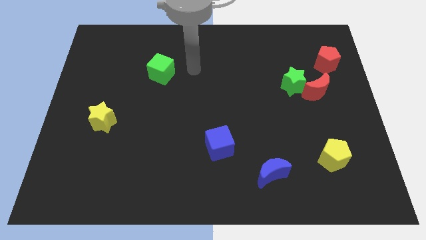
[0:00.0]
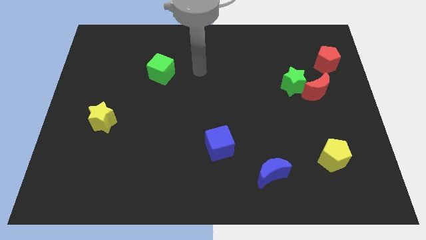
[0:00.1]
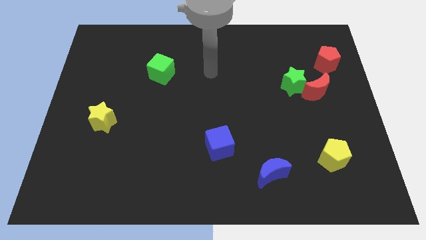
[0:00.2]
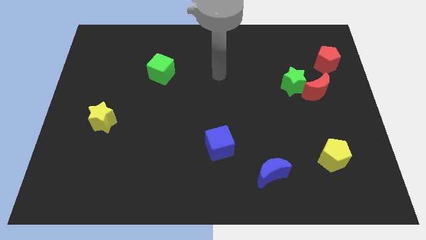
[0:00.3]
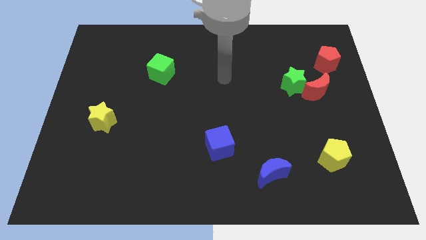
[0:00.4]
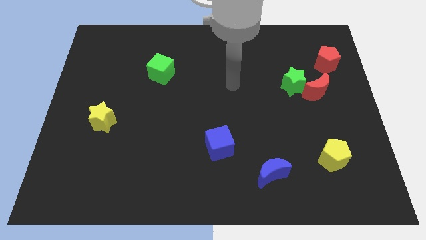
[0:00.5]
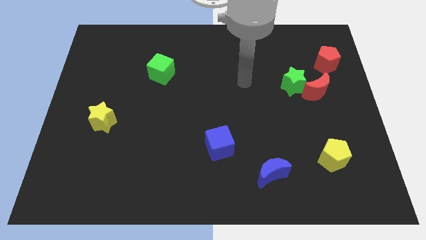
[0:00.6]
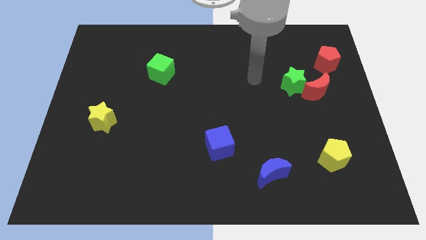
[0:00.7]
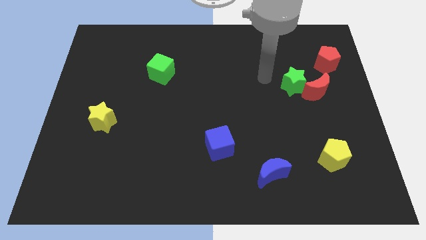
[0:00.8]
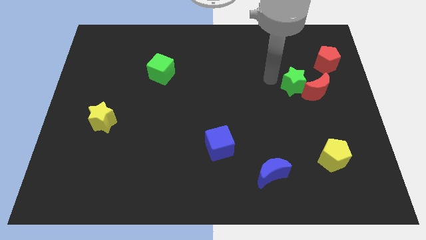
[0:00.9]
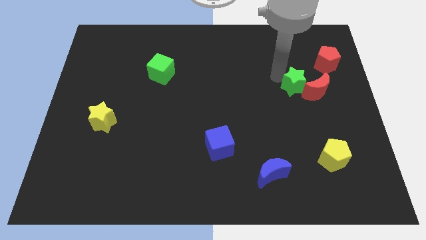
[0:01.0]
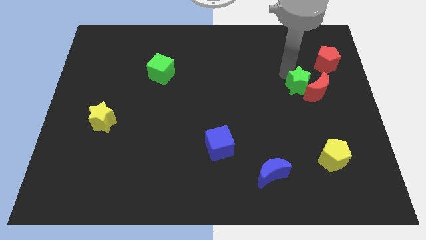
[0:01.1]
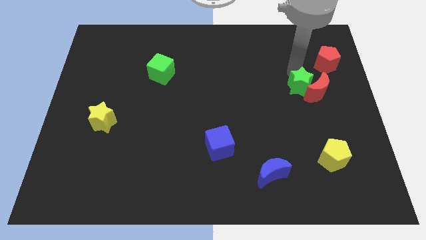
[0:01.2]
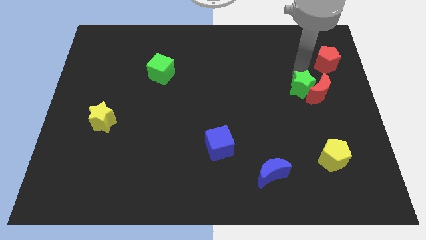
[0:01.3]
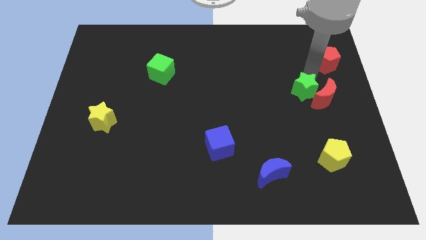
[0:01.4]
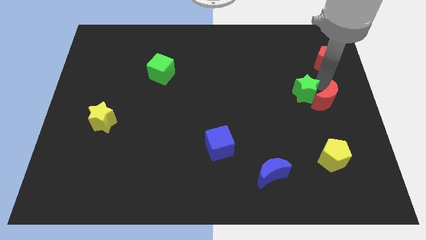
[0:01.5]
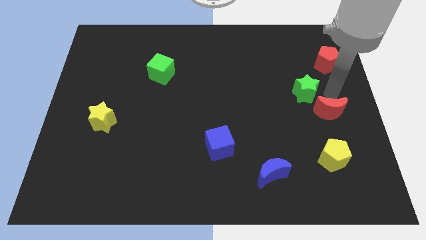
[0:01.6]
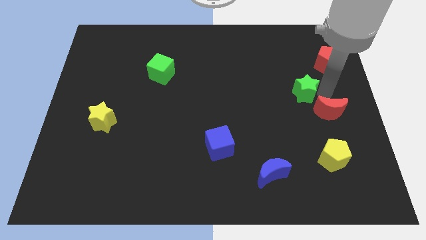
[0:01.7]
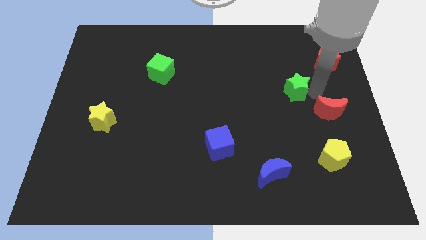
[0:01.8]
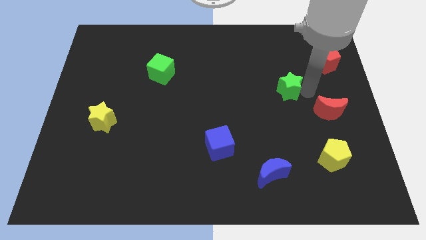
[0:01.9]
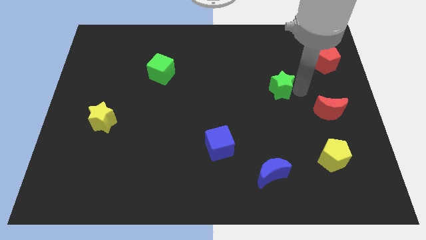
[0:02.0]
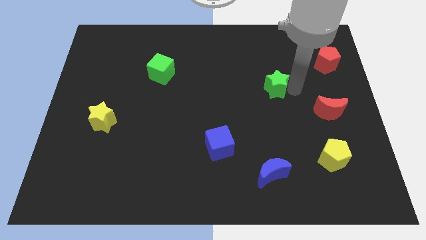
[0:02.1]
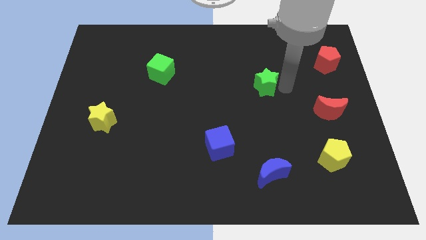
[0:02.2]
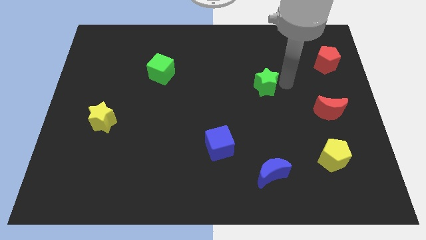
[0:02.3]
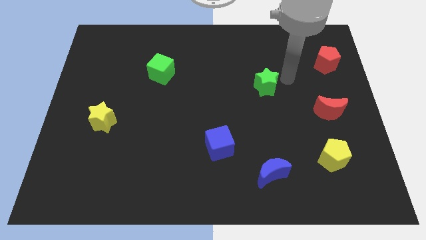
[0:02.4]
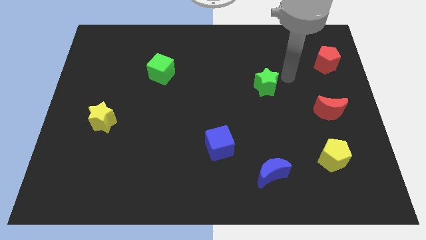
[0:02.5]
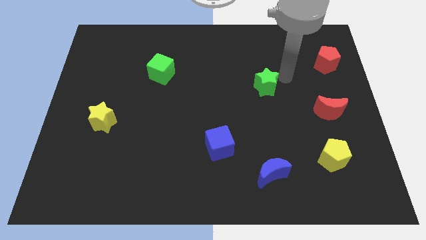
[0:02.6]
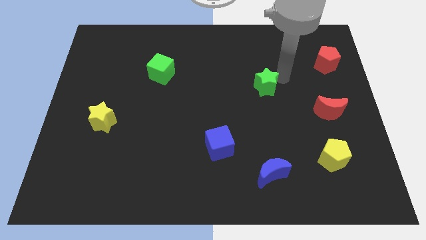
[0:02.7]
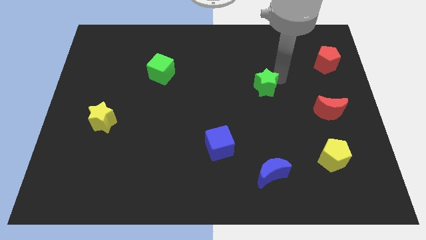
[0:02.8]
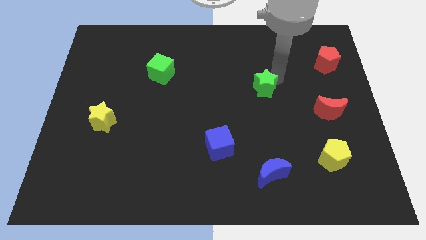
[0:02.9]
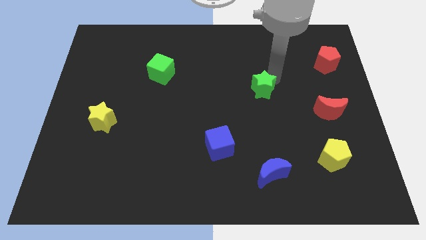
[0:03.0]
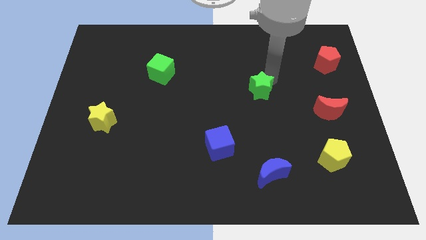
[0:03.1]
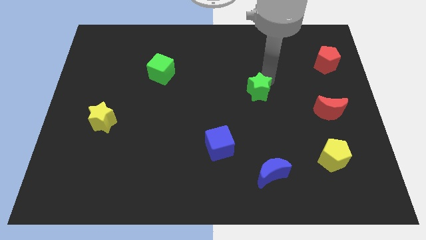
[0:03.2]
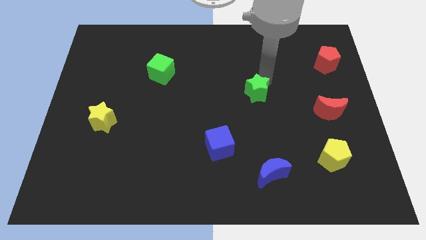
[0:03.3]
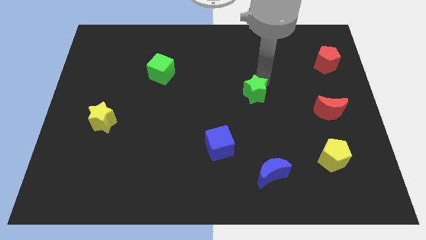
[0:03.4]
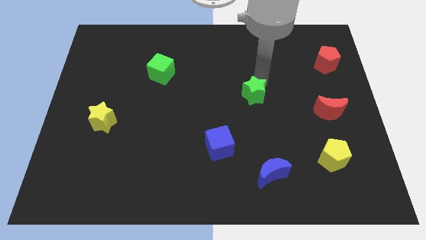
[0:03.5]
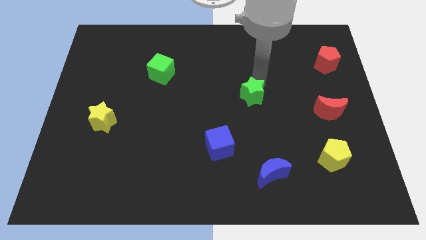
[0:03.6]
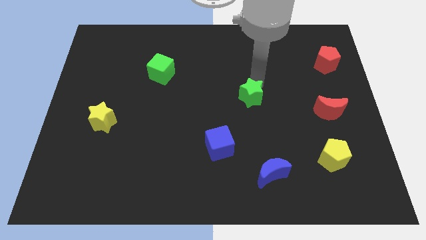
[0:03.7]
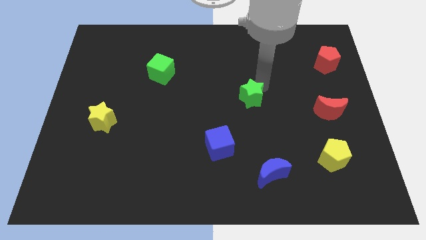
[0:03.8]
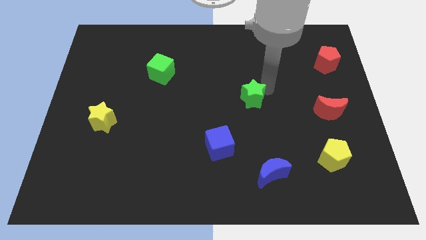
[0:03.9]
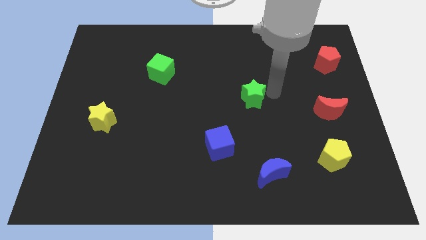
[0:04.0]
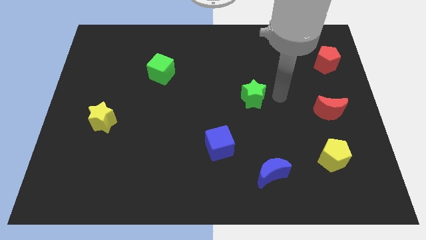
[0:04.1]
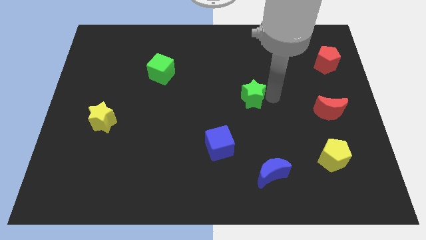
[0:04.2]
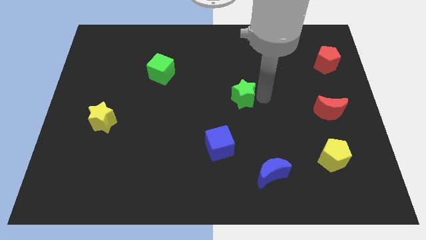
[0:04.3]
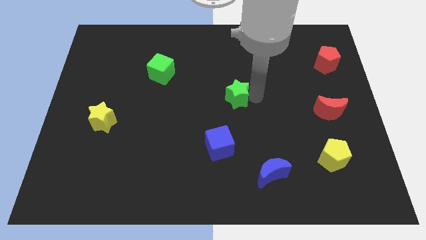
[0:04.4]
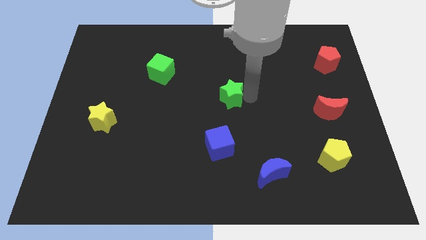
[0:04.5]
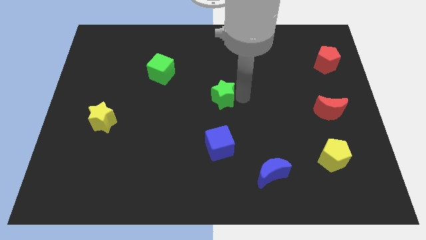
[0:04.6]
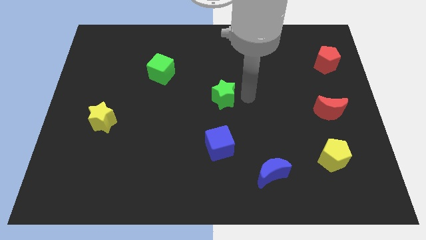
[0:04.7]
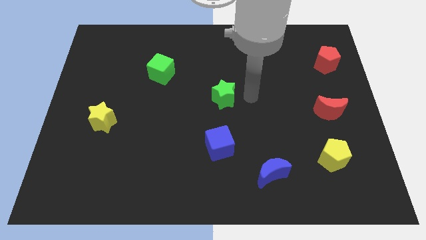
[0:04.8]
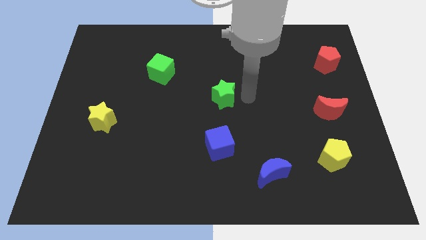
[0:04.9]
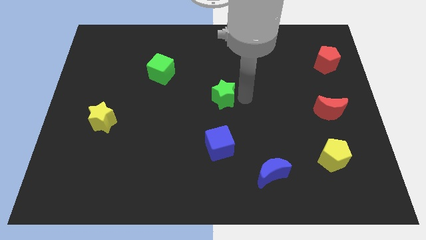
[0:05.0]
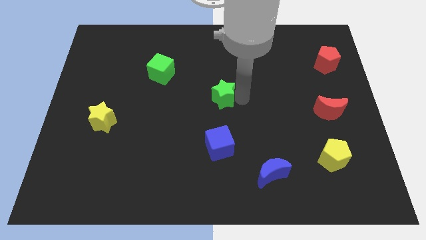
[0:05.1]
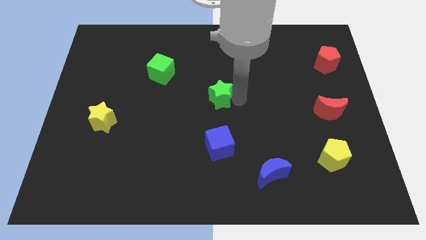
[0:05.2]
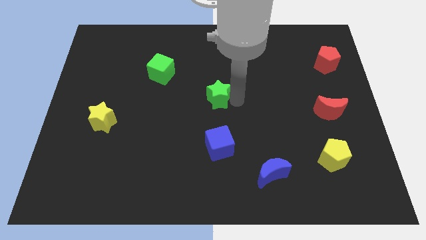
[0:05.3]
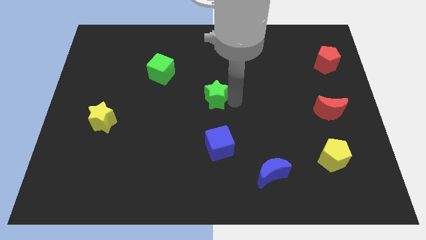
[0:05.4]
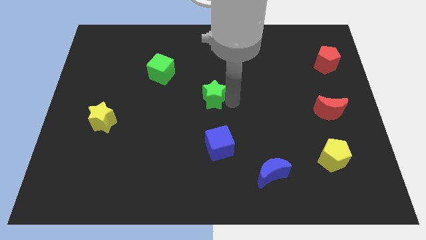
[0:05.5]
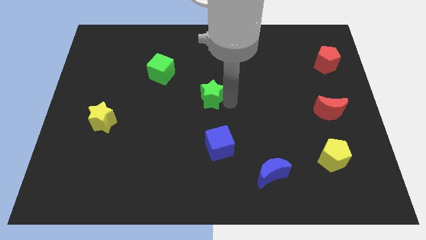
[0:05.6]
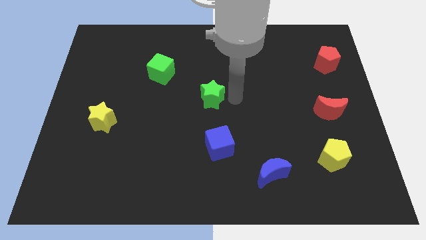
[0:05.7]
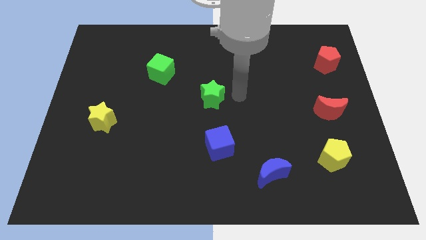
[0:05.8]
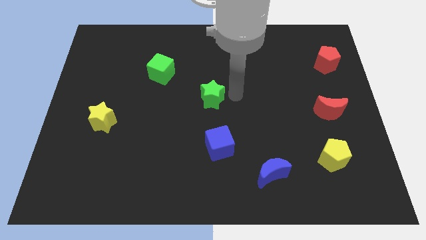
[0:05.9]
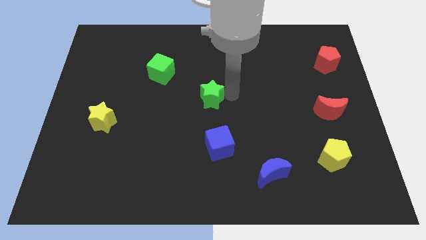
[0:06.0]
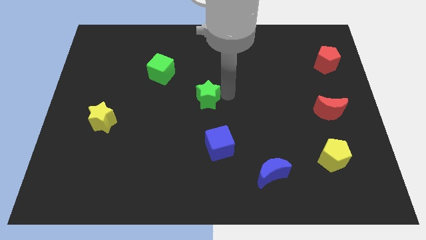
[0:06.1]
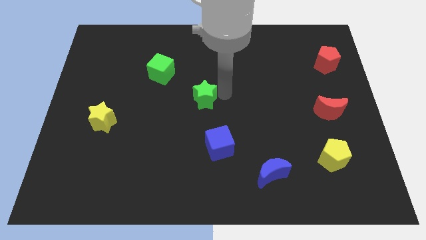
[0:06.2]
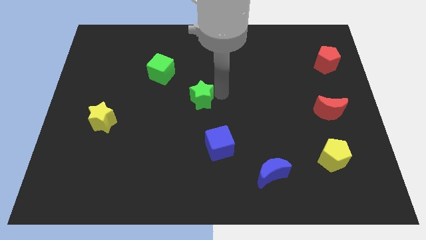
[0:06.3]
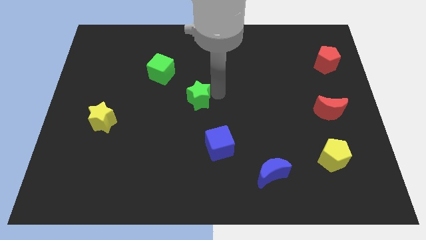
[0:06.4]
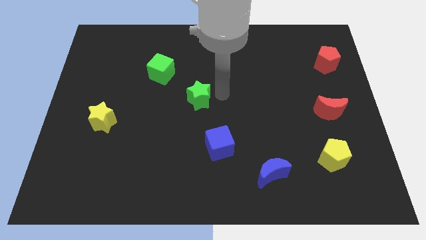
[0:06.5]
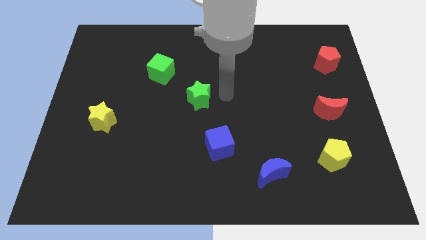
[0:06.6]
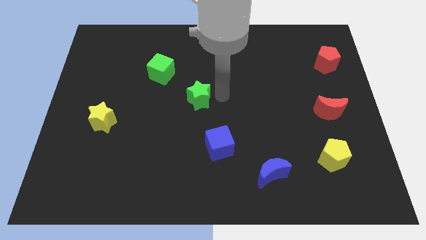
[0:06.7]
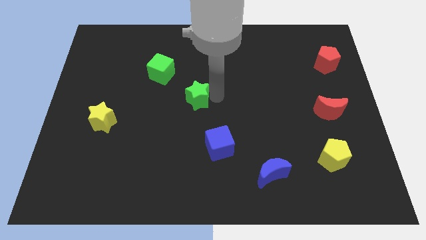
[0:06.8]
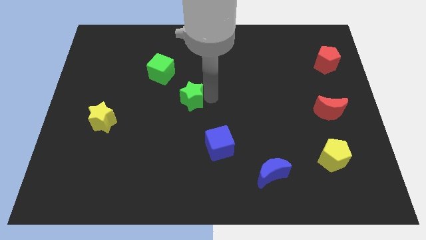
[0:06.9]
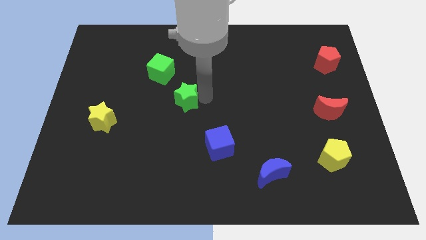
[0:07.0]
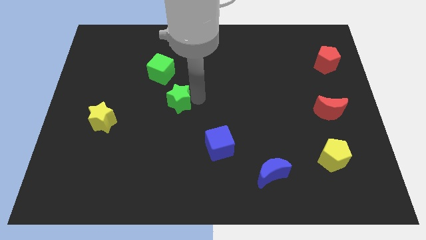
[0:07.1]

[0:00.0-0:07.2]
push the green star below the green cube
